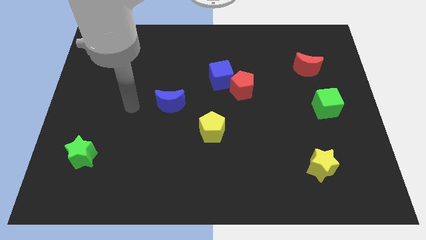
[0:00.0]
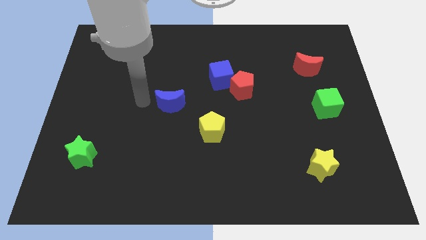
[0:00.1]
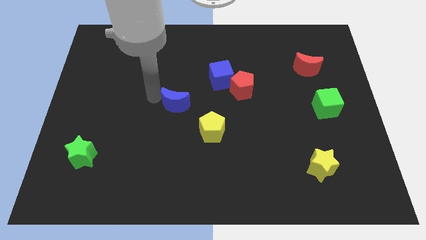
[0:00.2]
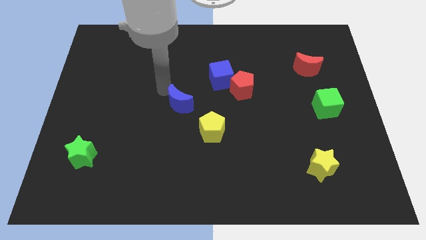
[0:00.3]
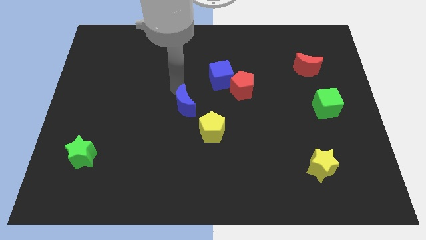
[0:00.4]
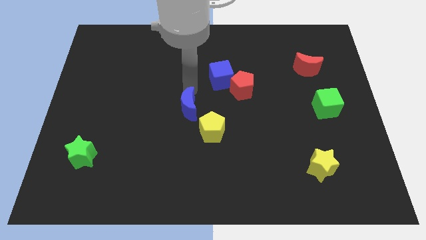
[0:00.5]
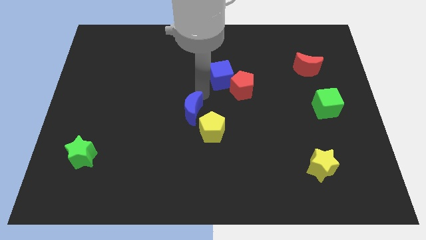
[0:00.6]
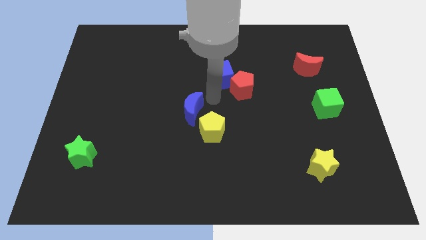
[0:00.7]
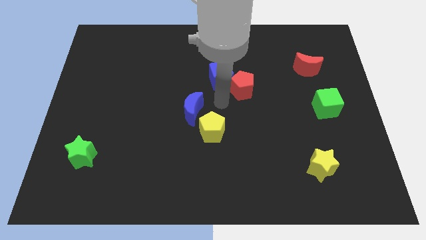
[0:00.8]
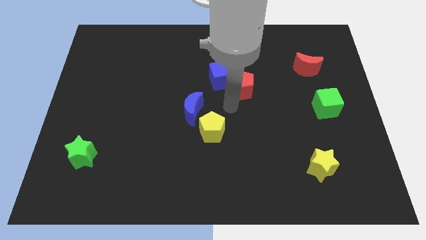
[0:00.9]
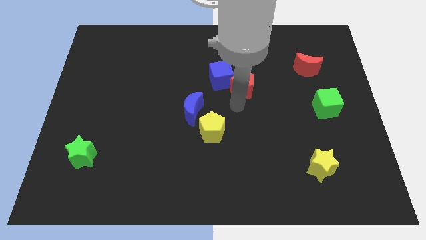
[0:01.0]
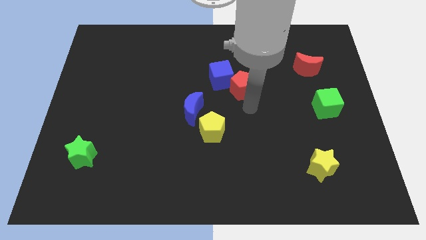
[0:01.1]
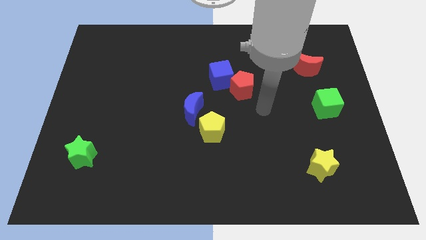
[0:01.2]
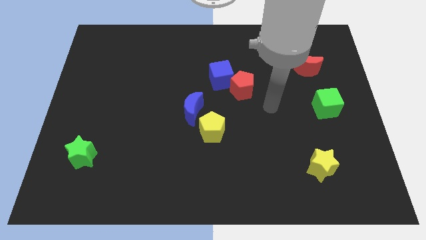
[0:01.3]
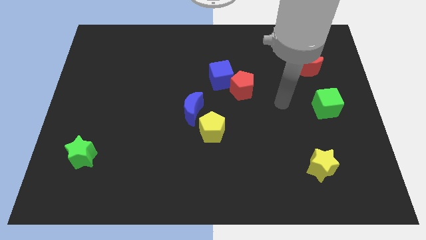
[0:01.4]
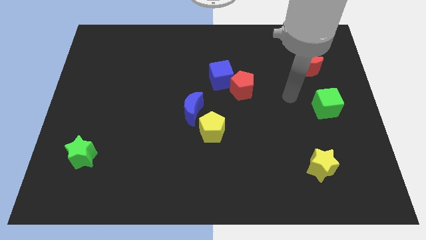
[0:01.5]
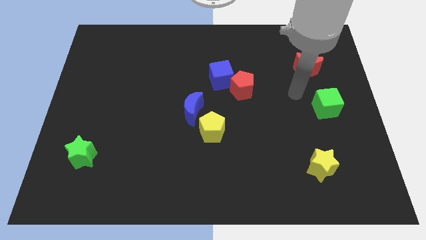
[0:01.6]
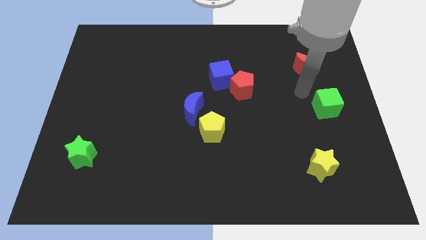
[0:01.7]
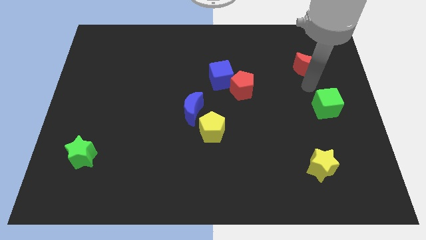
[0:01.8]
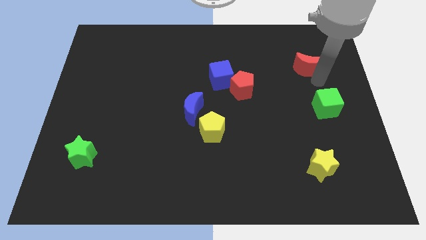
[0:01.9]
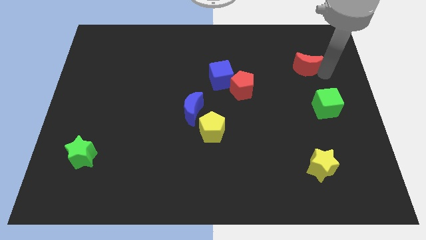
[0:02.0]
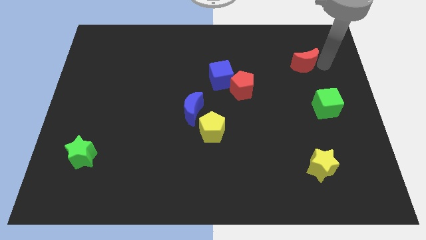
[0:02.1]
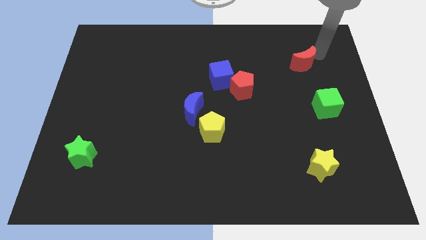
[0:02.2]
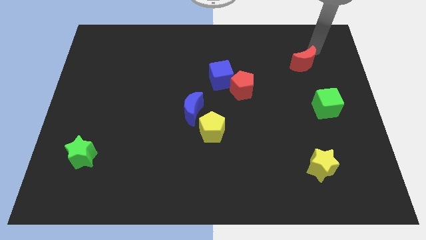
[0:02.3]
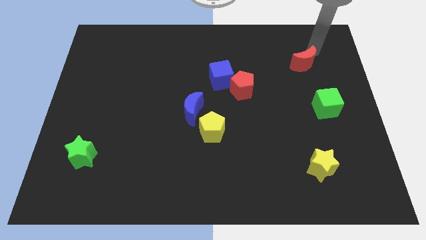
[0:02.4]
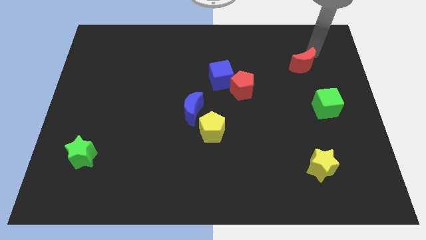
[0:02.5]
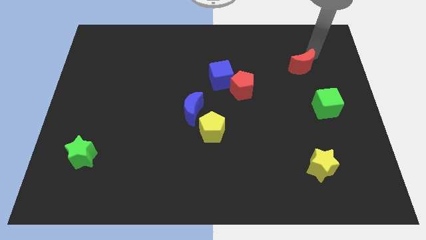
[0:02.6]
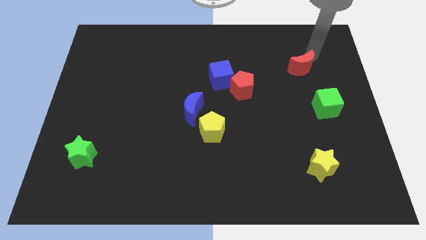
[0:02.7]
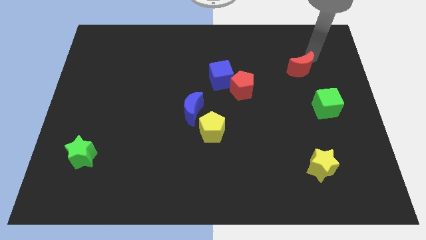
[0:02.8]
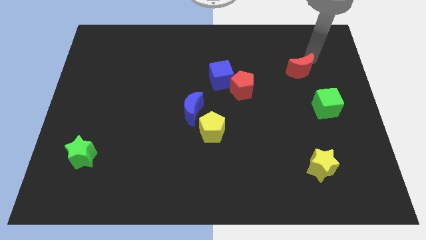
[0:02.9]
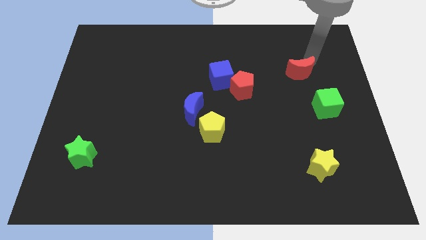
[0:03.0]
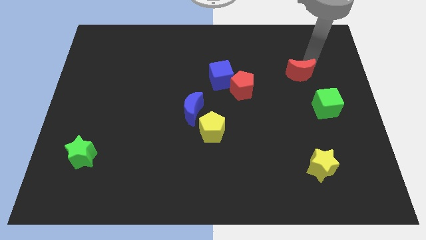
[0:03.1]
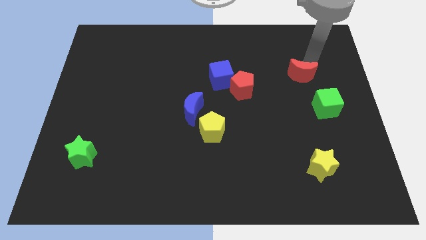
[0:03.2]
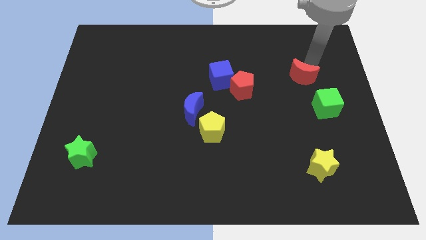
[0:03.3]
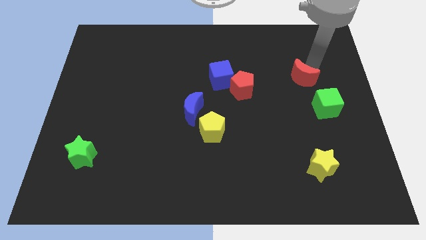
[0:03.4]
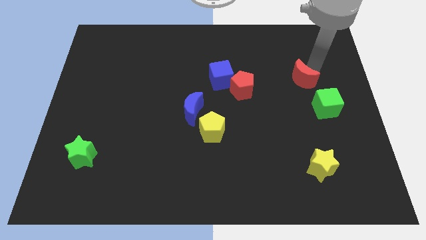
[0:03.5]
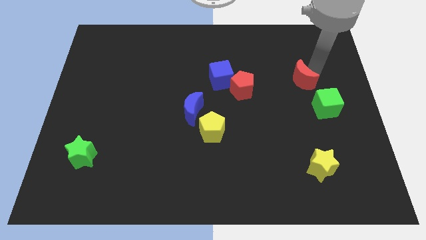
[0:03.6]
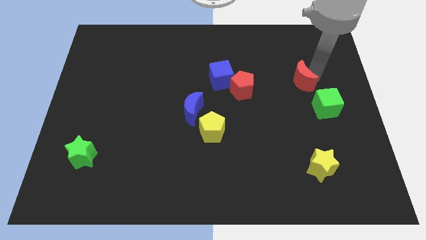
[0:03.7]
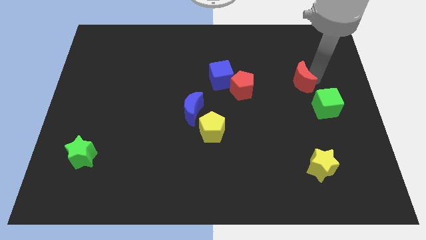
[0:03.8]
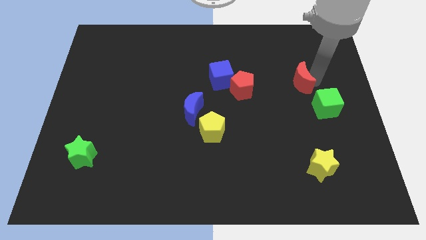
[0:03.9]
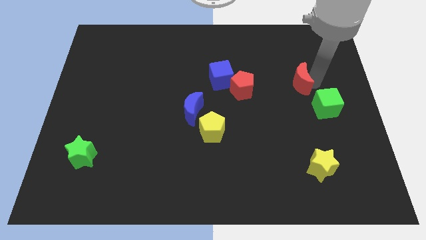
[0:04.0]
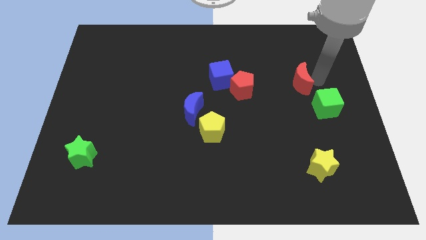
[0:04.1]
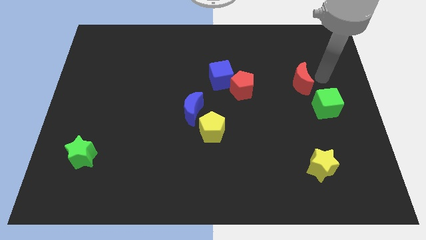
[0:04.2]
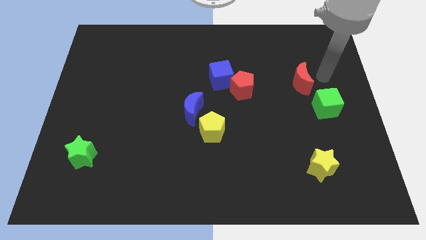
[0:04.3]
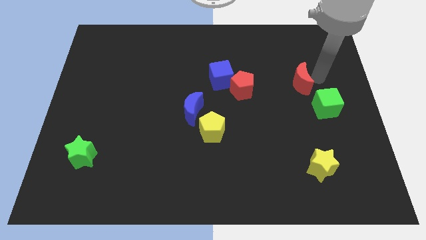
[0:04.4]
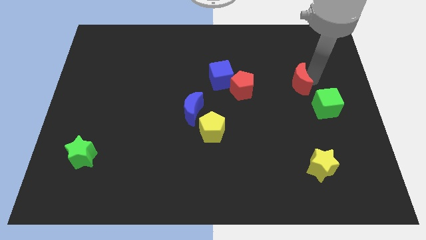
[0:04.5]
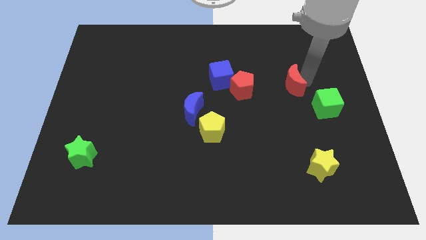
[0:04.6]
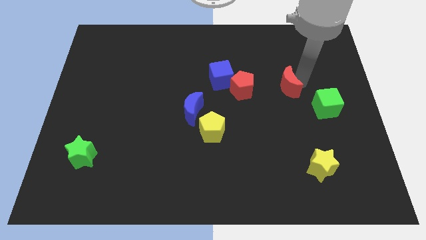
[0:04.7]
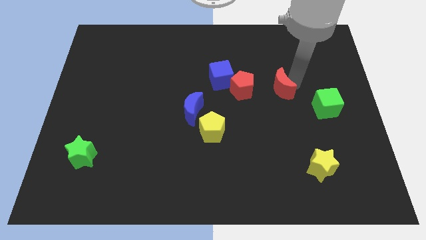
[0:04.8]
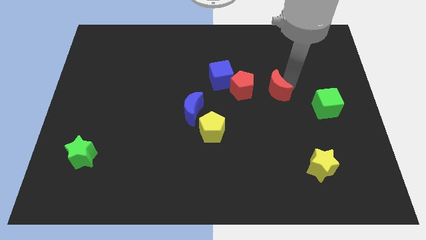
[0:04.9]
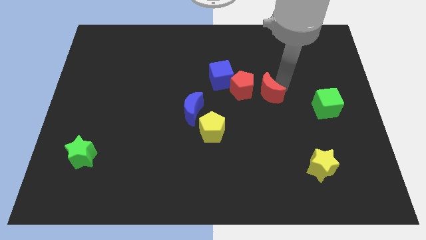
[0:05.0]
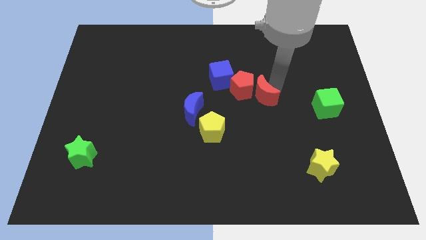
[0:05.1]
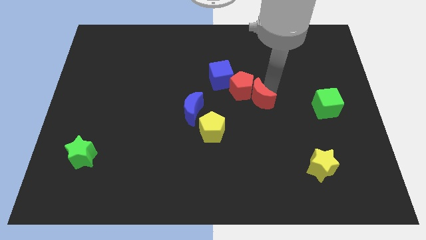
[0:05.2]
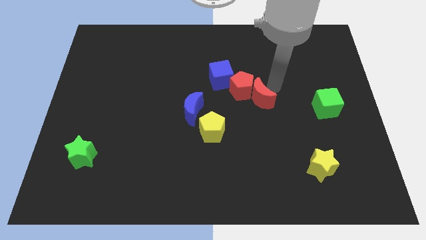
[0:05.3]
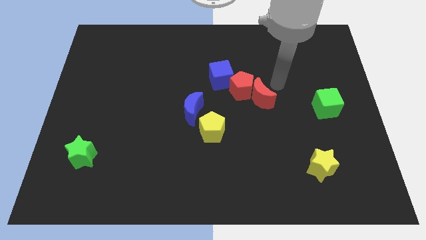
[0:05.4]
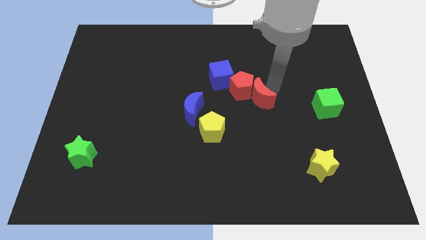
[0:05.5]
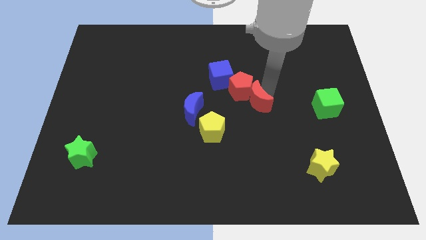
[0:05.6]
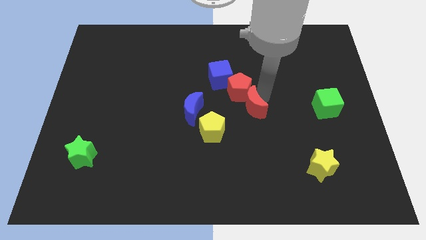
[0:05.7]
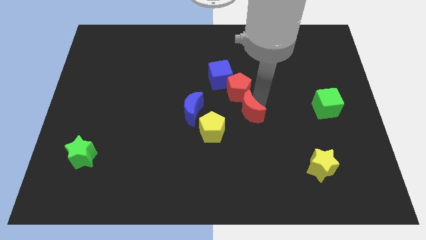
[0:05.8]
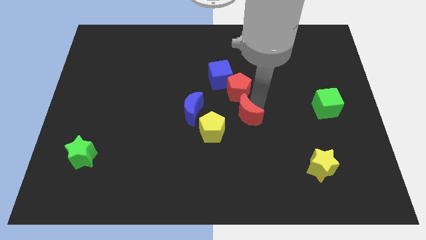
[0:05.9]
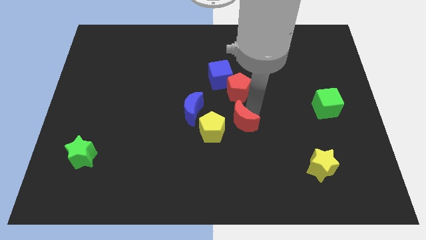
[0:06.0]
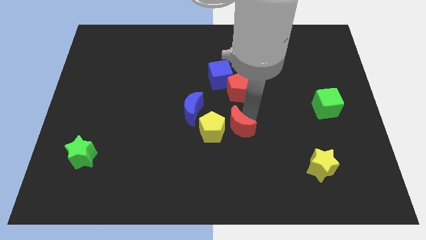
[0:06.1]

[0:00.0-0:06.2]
push the red moon towards the yellow pentagon

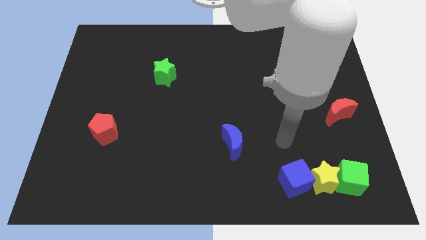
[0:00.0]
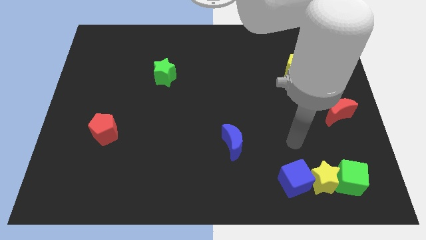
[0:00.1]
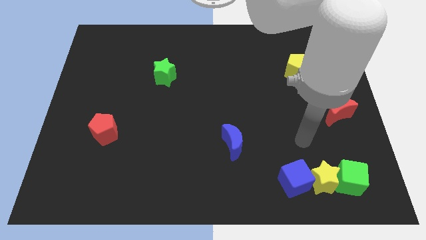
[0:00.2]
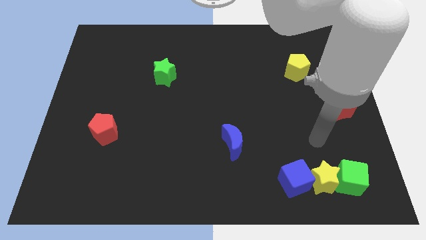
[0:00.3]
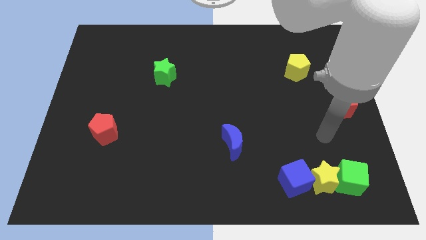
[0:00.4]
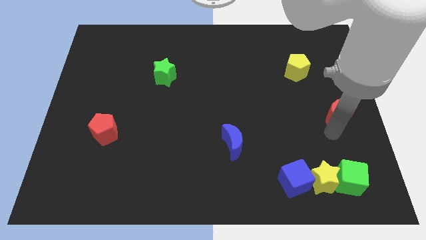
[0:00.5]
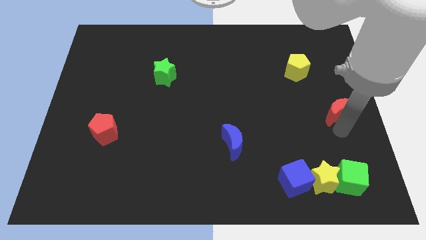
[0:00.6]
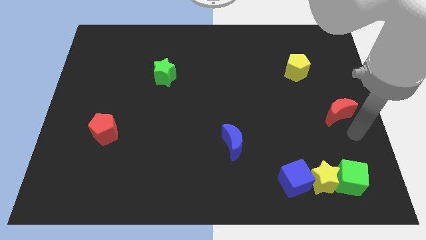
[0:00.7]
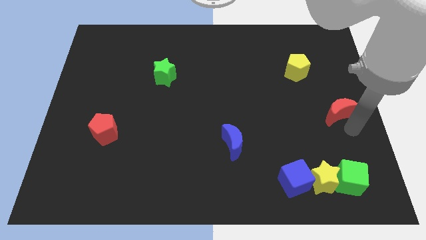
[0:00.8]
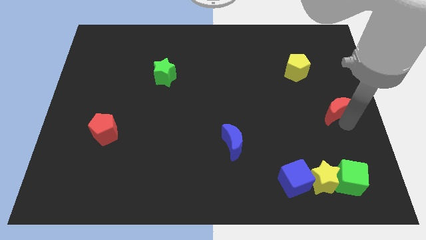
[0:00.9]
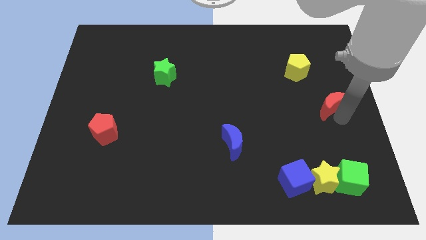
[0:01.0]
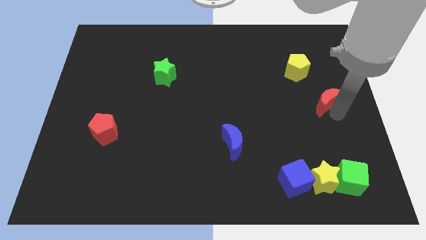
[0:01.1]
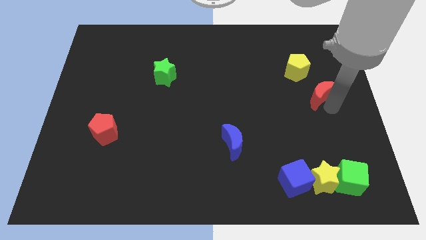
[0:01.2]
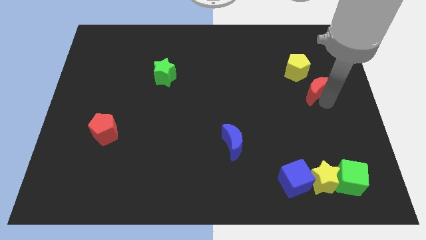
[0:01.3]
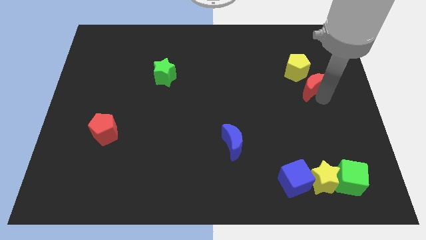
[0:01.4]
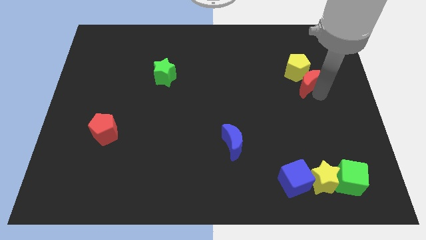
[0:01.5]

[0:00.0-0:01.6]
put the red moon close to the yellow pentagon
